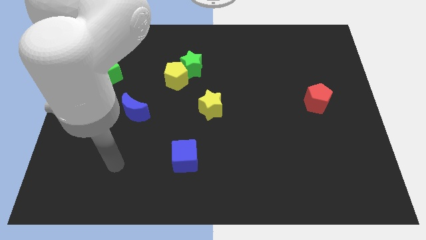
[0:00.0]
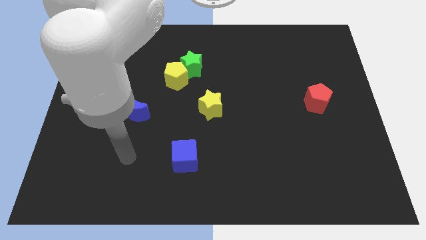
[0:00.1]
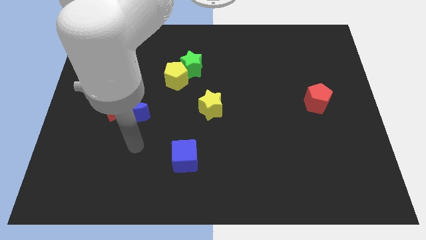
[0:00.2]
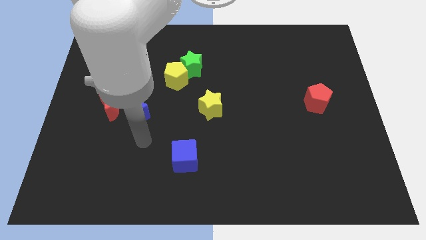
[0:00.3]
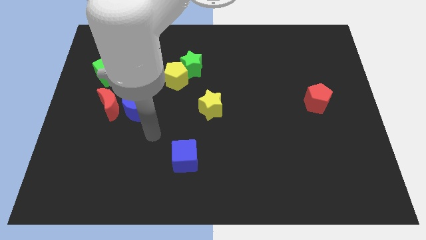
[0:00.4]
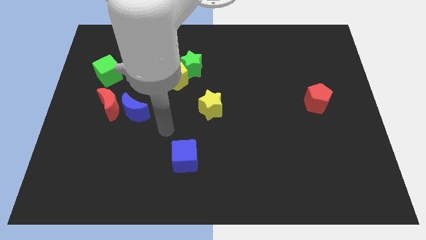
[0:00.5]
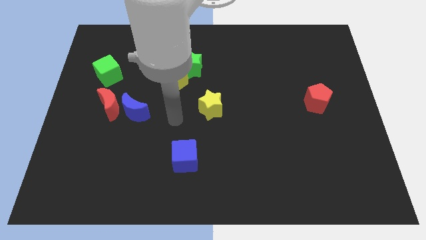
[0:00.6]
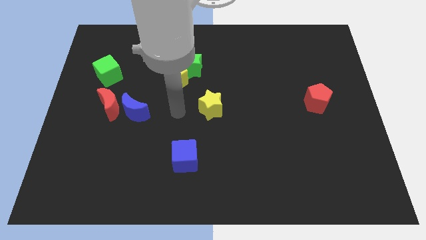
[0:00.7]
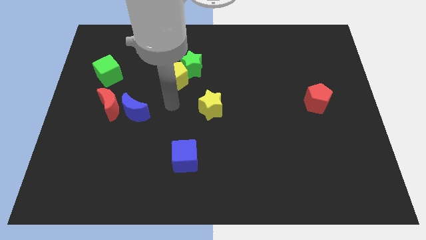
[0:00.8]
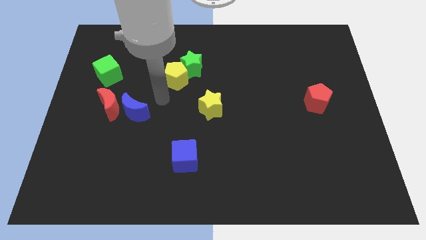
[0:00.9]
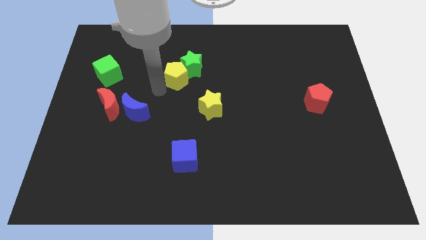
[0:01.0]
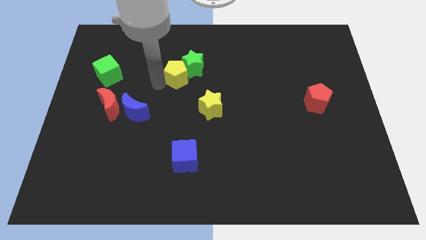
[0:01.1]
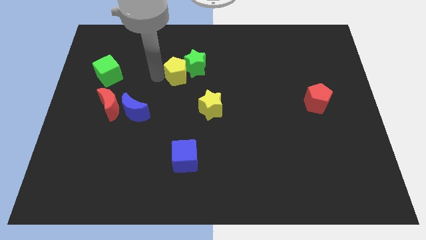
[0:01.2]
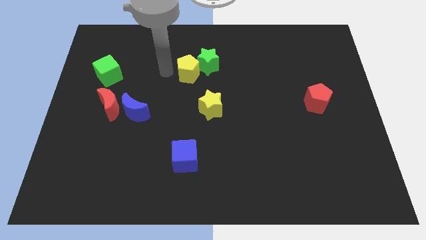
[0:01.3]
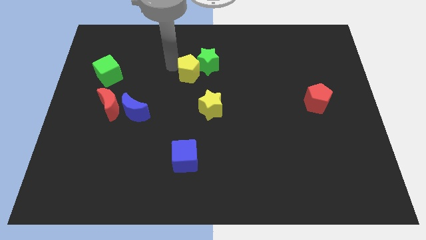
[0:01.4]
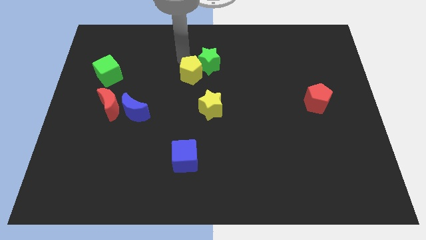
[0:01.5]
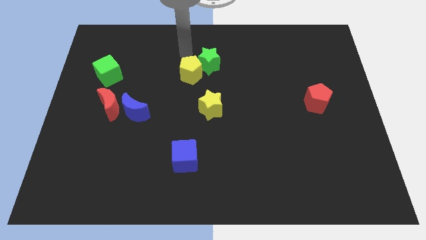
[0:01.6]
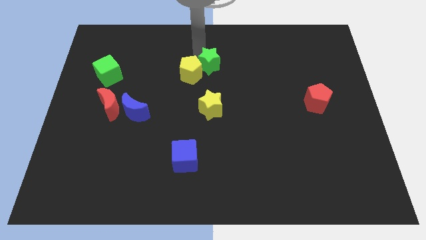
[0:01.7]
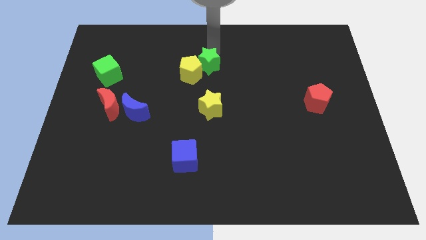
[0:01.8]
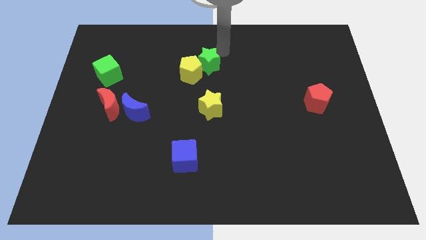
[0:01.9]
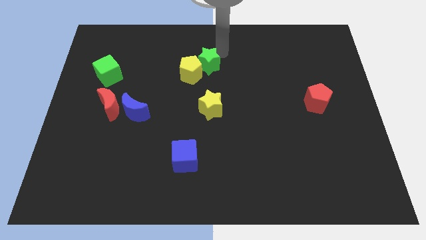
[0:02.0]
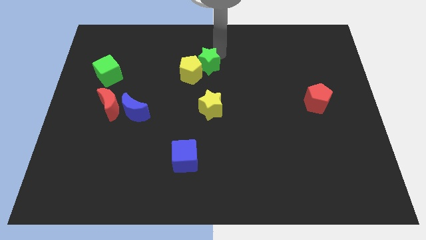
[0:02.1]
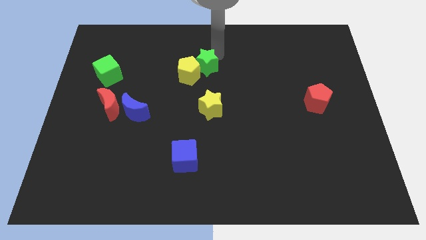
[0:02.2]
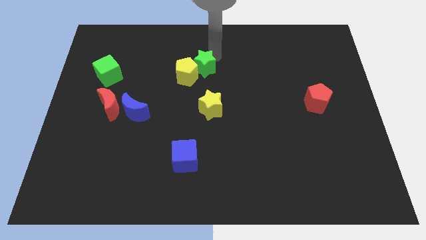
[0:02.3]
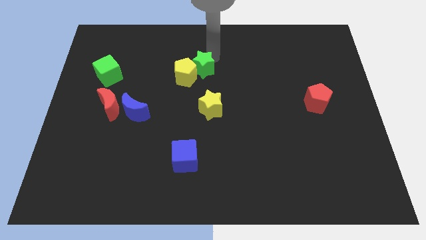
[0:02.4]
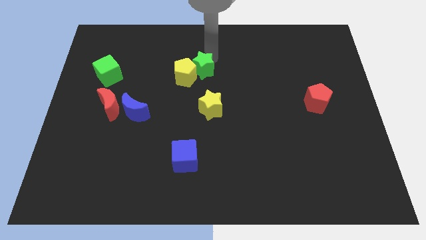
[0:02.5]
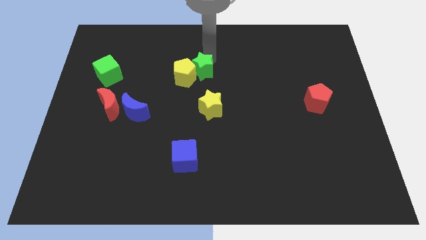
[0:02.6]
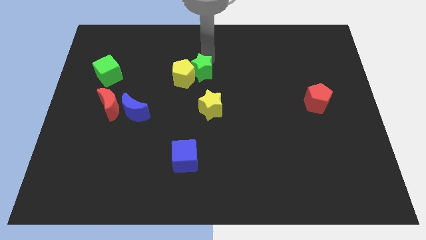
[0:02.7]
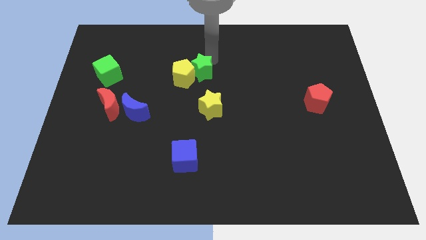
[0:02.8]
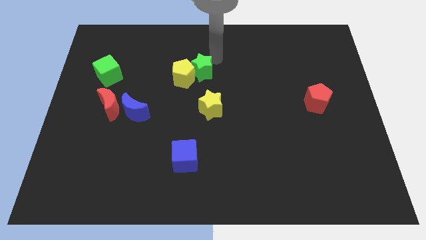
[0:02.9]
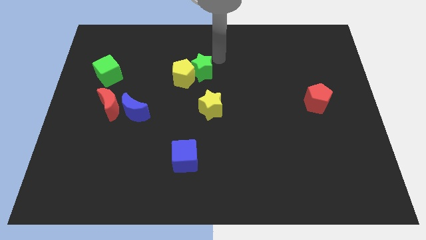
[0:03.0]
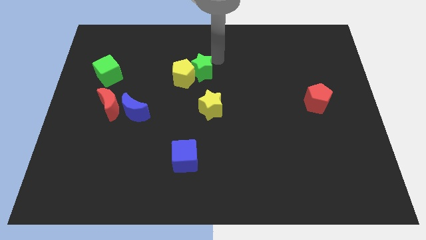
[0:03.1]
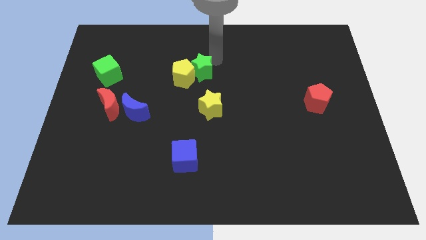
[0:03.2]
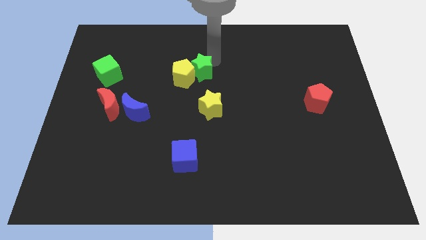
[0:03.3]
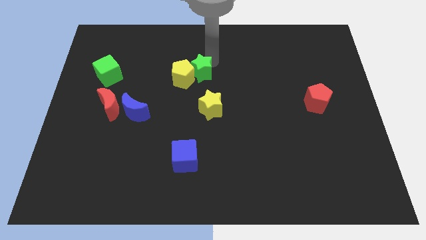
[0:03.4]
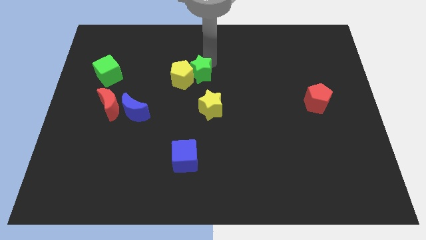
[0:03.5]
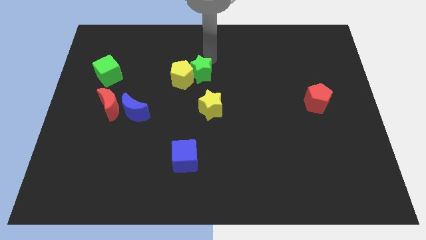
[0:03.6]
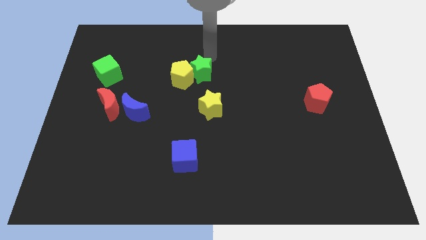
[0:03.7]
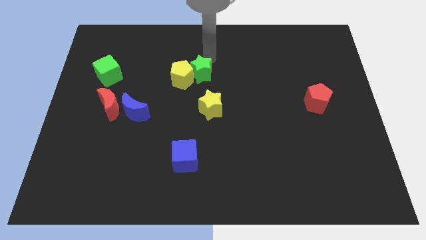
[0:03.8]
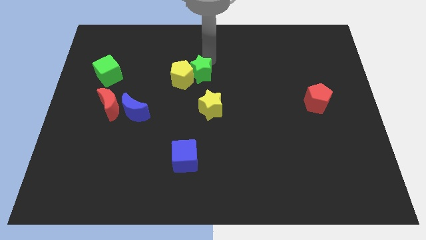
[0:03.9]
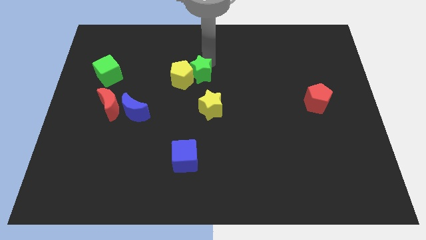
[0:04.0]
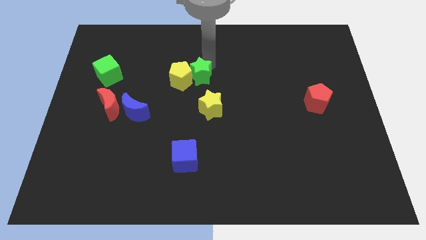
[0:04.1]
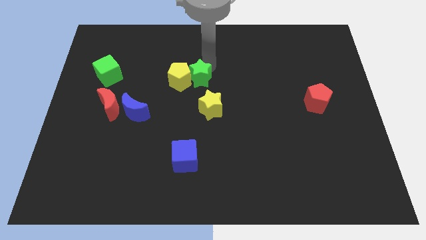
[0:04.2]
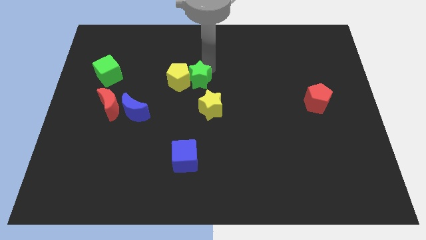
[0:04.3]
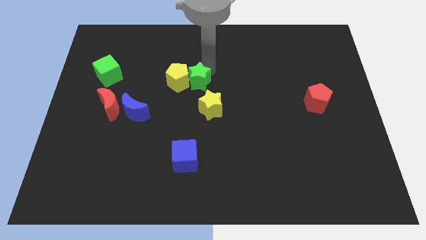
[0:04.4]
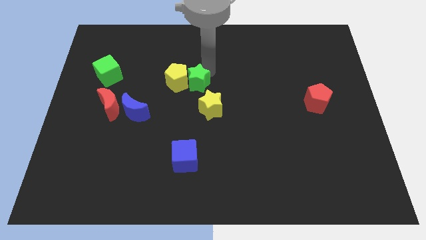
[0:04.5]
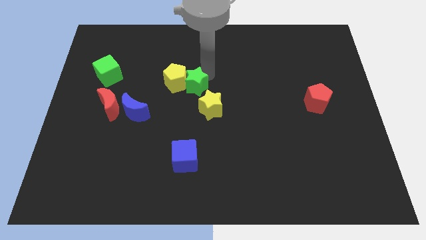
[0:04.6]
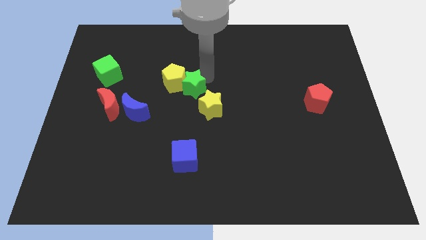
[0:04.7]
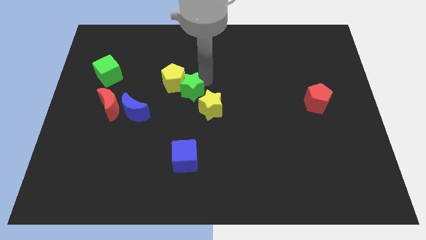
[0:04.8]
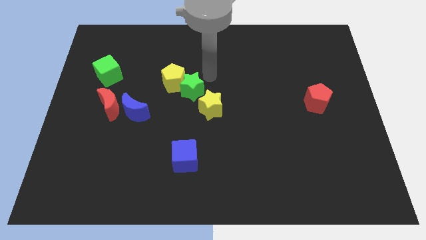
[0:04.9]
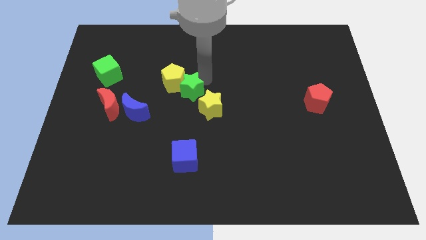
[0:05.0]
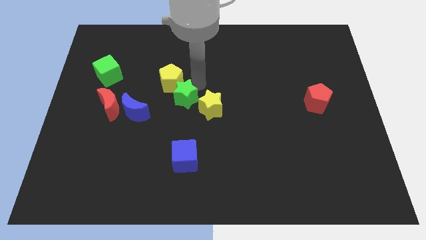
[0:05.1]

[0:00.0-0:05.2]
push the green star just left of the yellow star

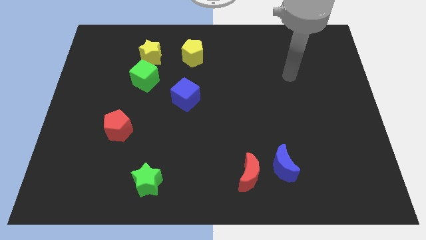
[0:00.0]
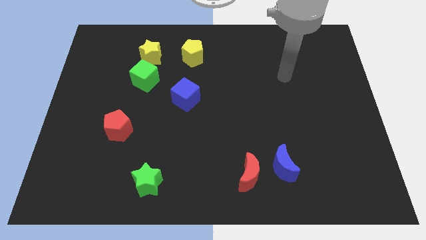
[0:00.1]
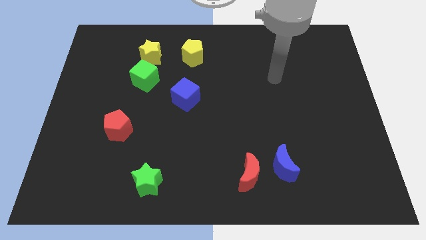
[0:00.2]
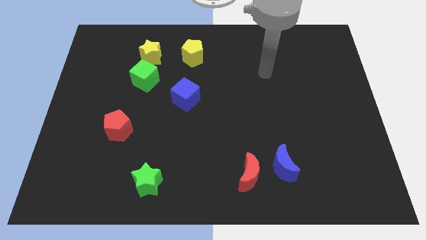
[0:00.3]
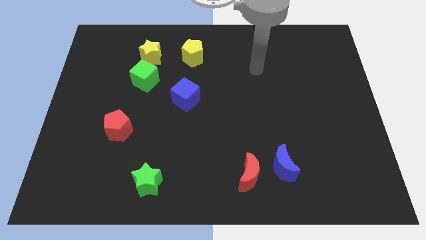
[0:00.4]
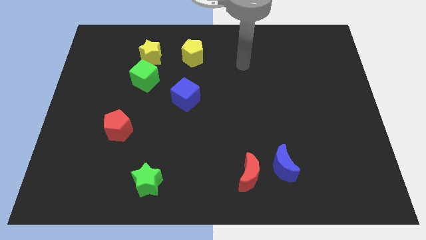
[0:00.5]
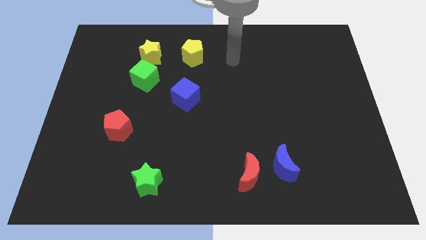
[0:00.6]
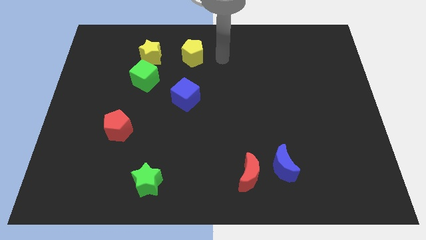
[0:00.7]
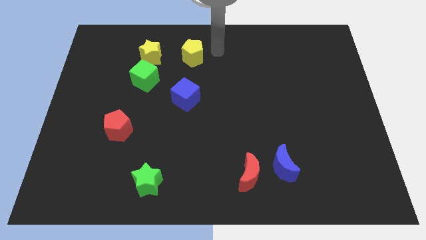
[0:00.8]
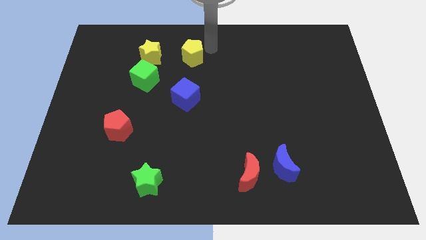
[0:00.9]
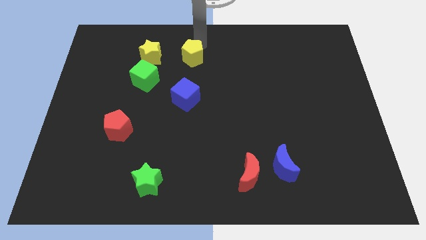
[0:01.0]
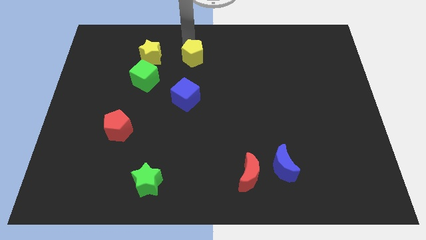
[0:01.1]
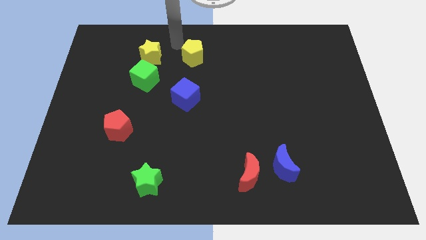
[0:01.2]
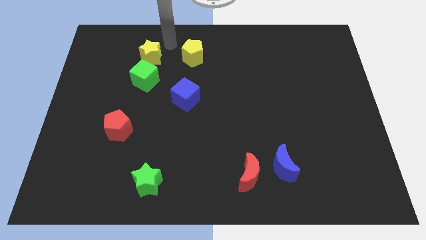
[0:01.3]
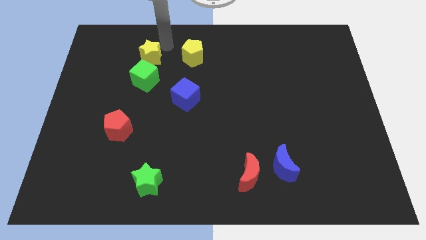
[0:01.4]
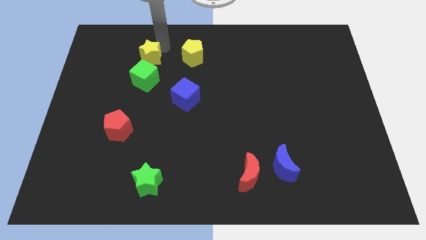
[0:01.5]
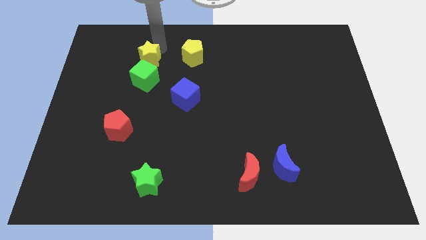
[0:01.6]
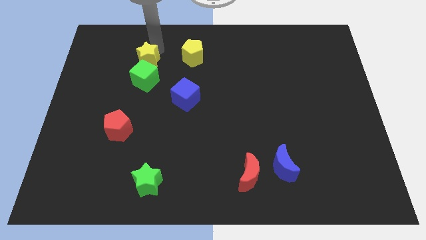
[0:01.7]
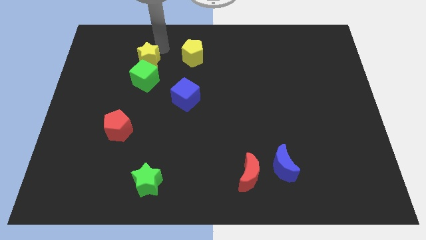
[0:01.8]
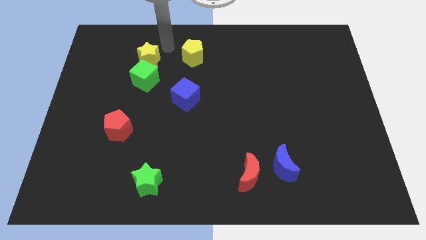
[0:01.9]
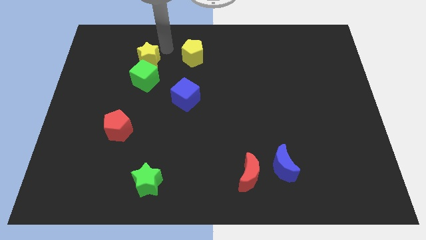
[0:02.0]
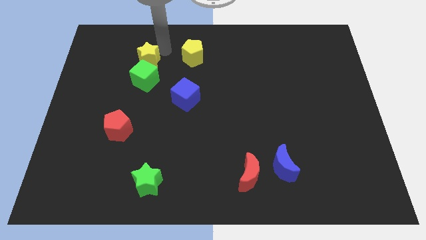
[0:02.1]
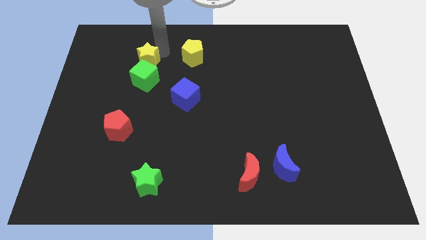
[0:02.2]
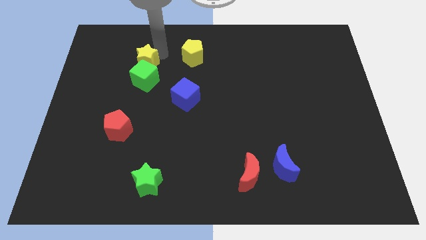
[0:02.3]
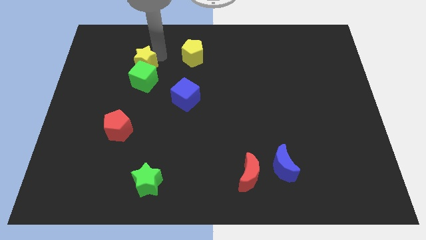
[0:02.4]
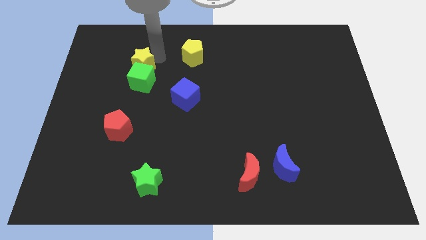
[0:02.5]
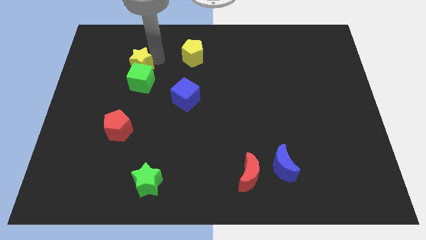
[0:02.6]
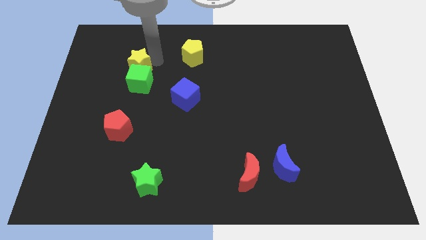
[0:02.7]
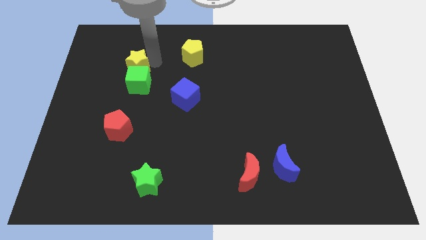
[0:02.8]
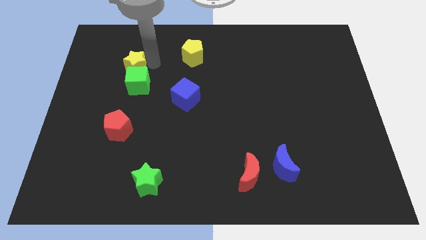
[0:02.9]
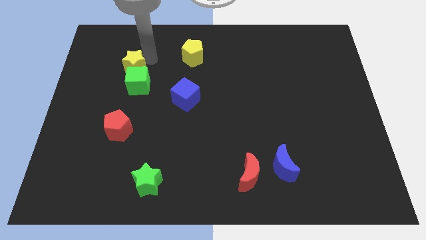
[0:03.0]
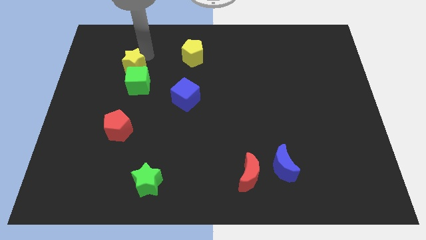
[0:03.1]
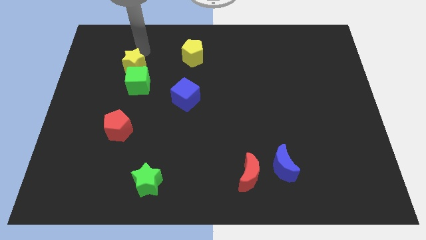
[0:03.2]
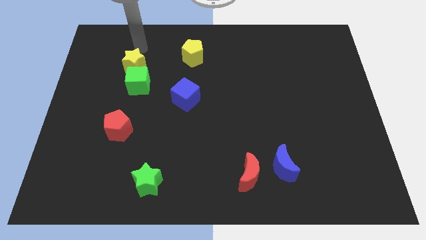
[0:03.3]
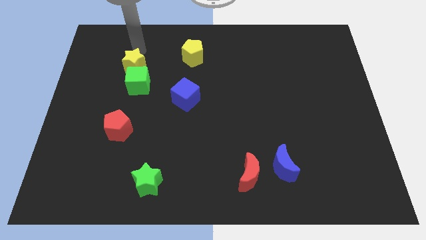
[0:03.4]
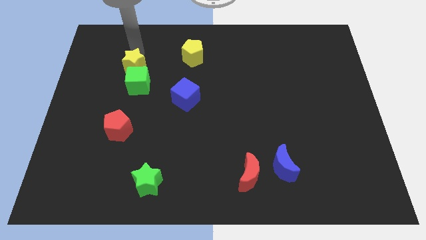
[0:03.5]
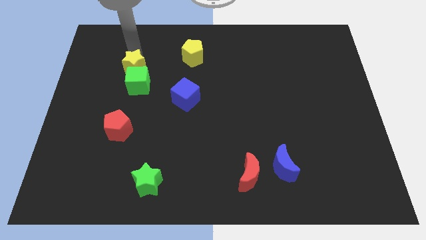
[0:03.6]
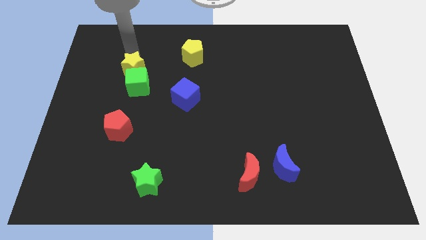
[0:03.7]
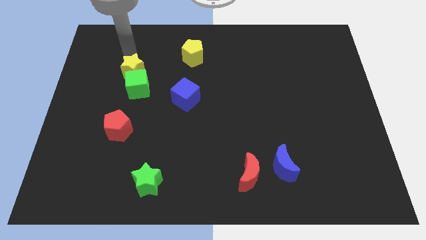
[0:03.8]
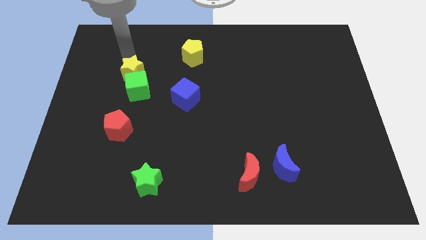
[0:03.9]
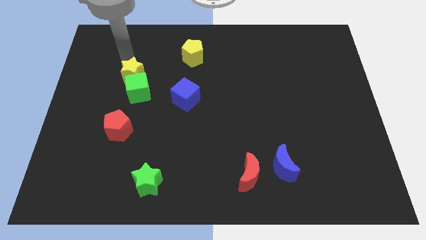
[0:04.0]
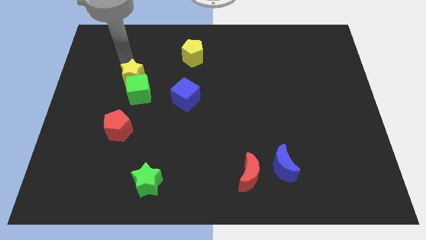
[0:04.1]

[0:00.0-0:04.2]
put the yellow star to the top of the red pentagon
